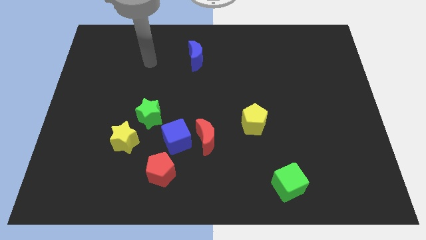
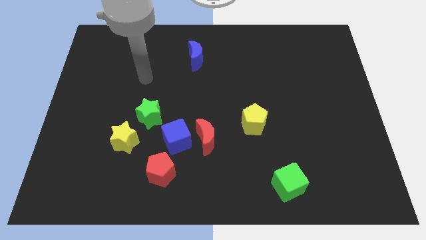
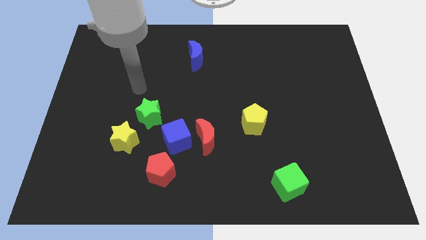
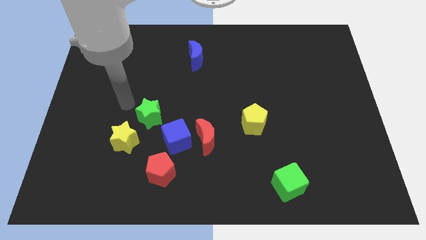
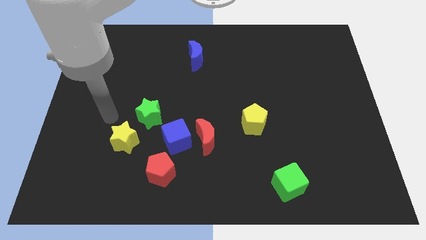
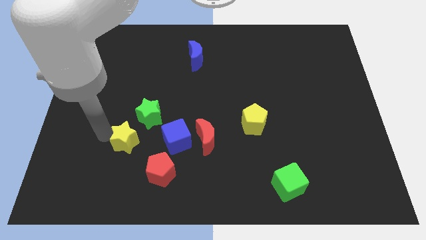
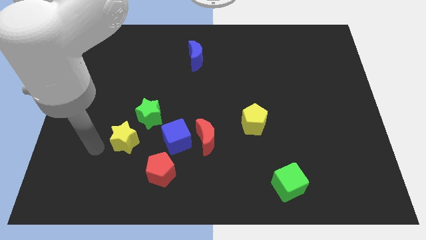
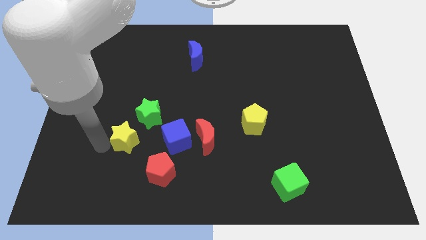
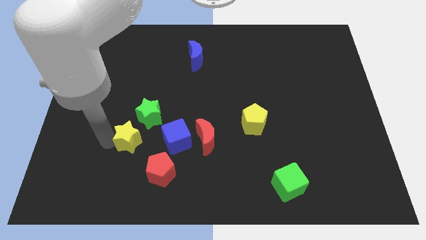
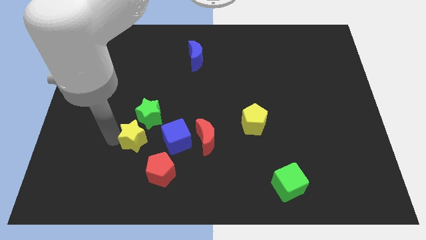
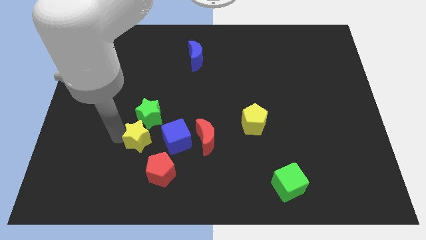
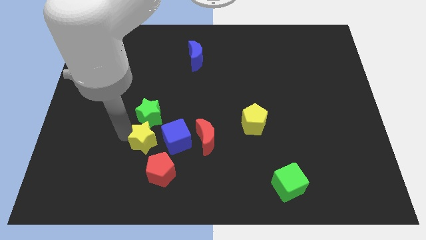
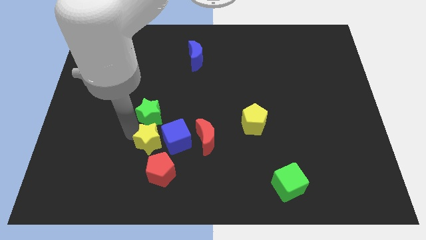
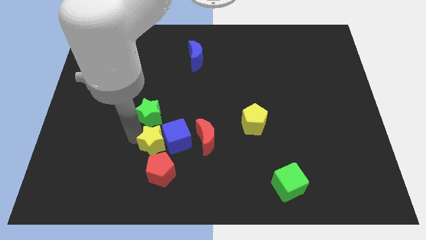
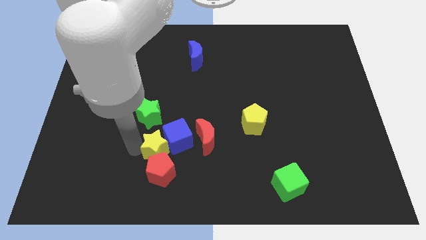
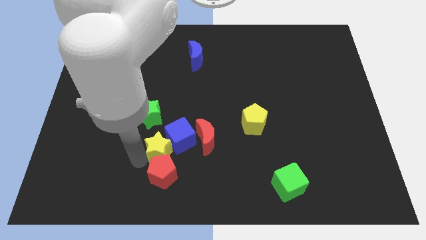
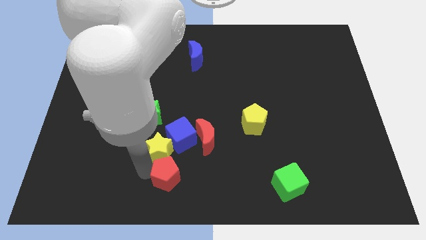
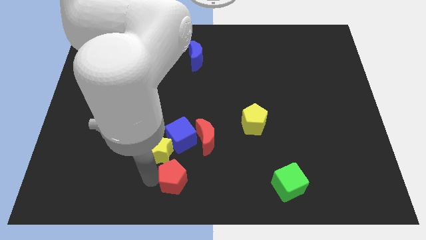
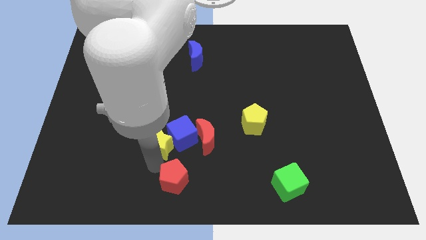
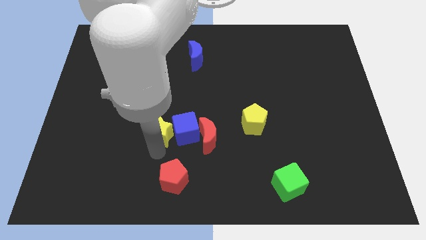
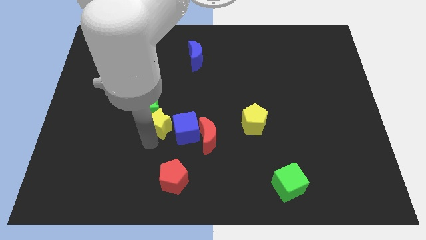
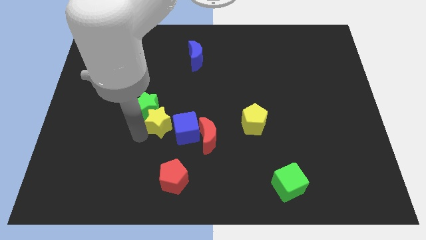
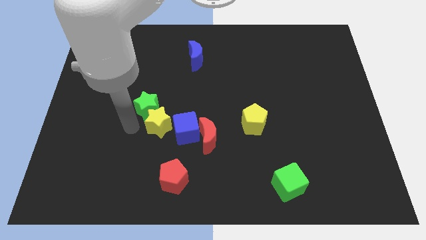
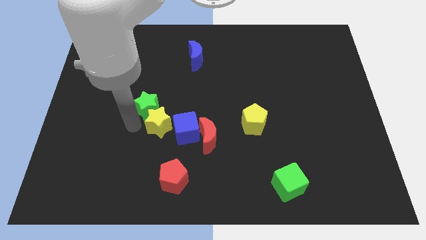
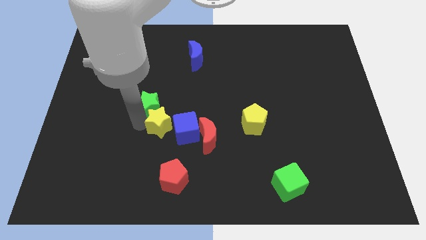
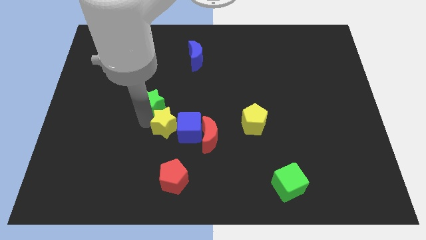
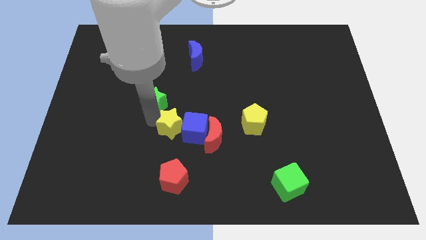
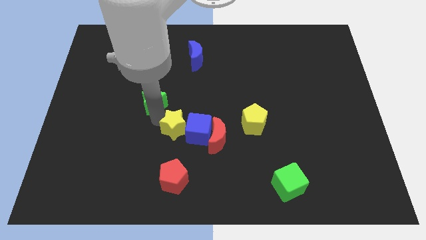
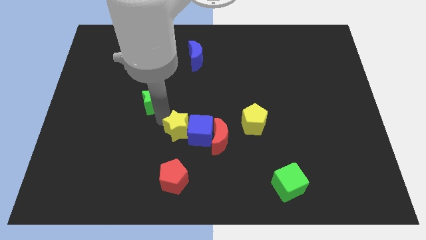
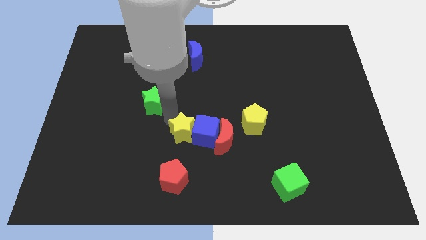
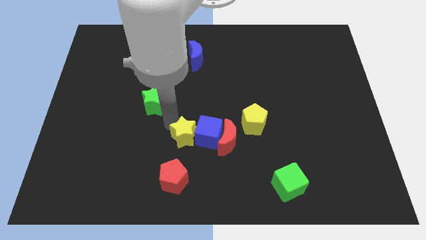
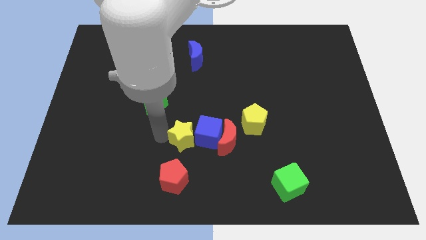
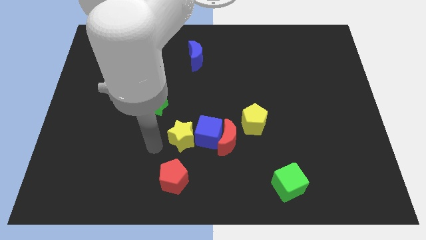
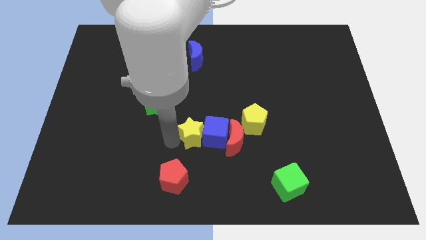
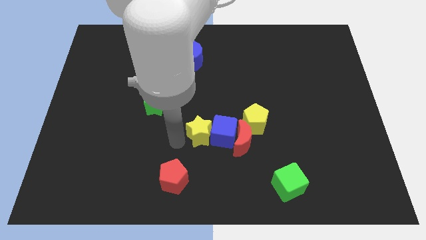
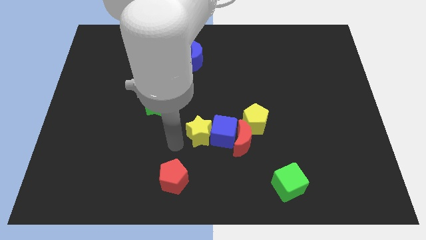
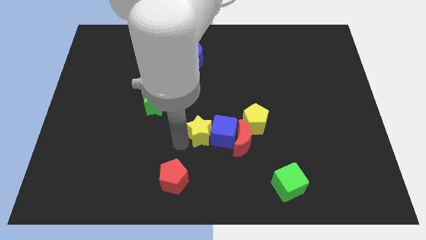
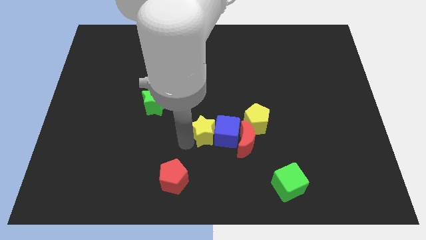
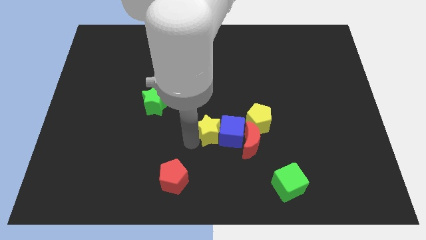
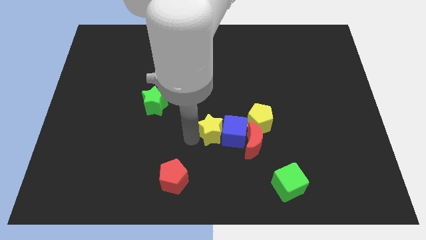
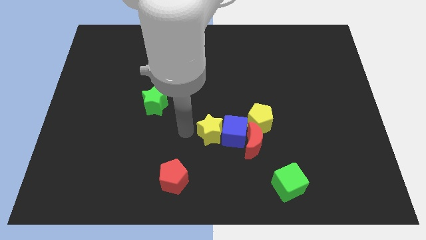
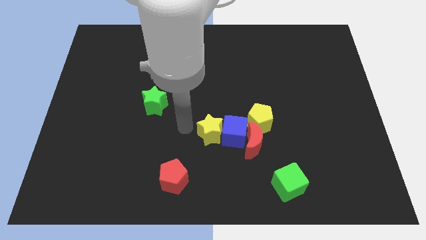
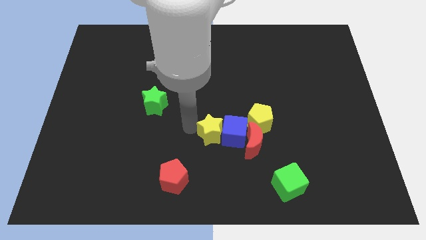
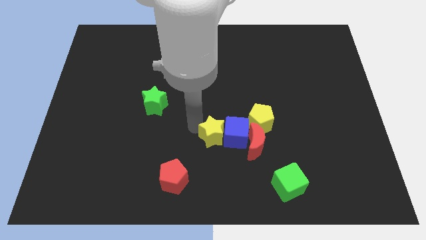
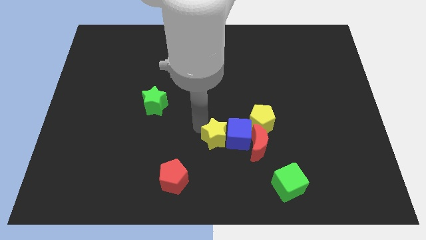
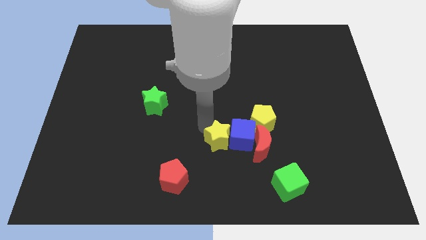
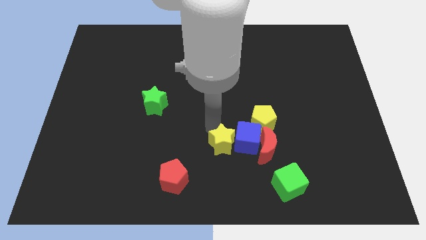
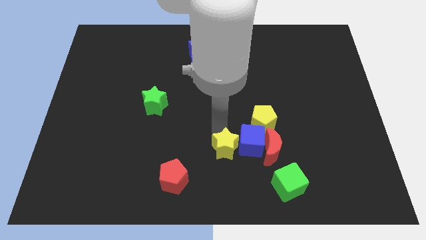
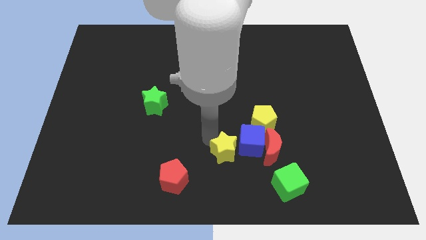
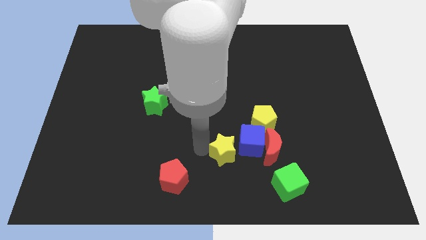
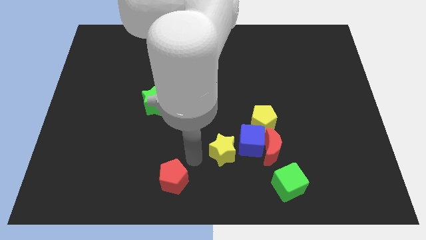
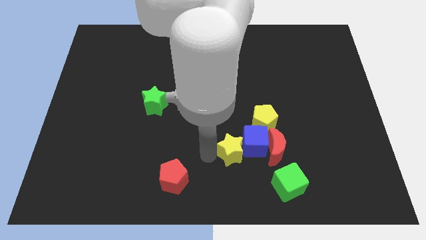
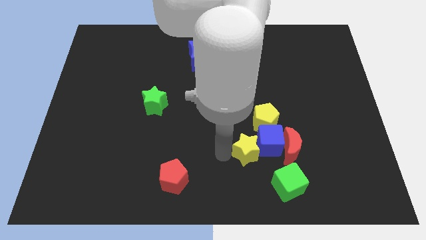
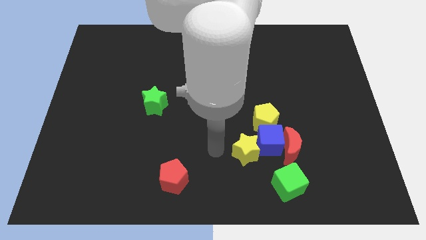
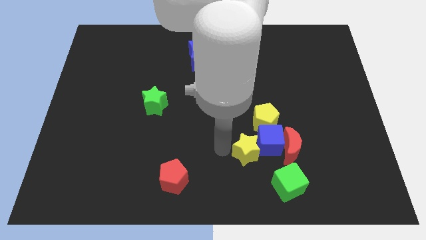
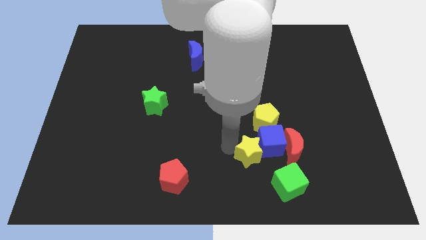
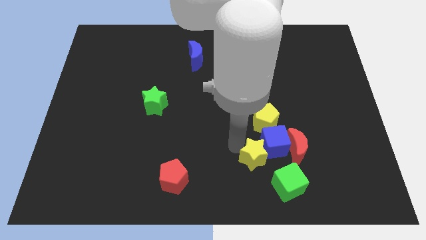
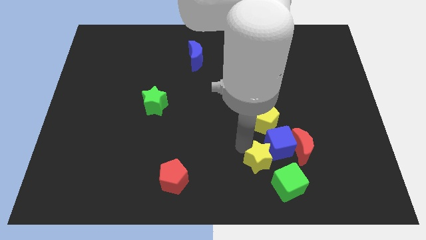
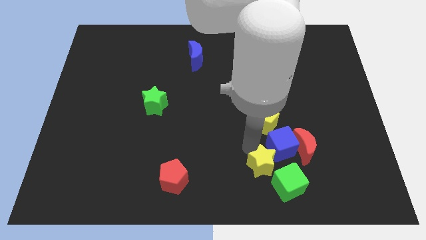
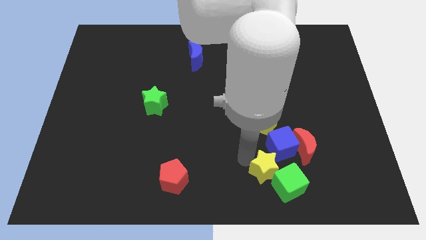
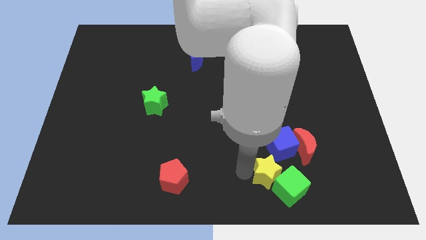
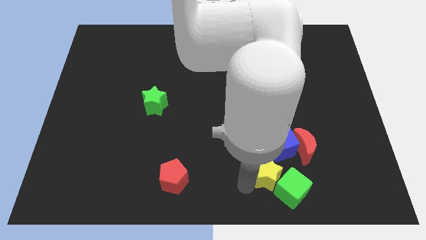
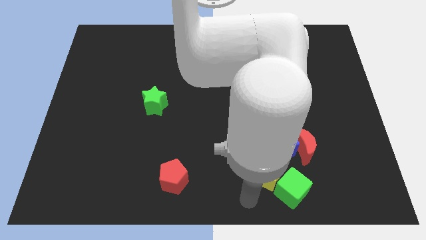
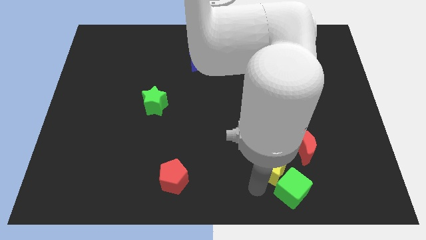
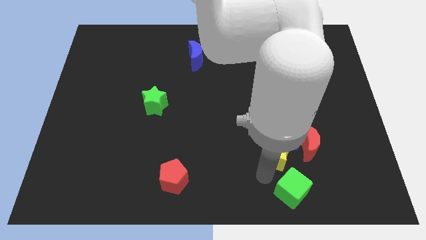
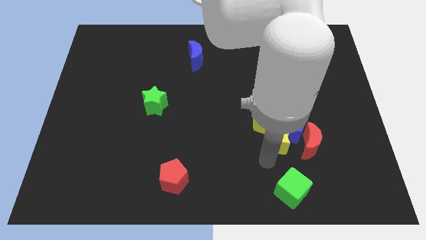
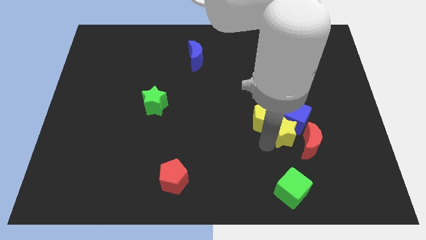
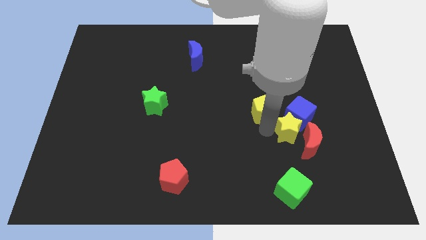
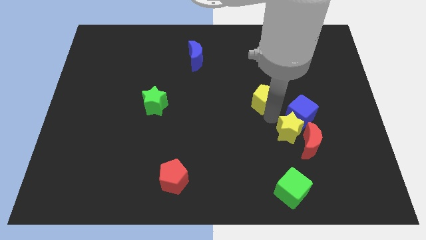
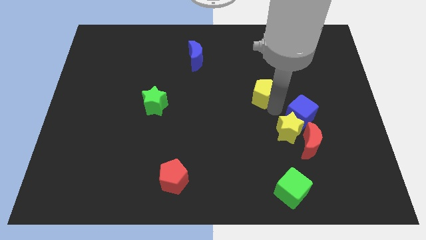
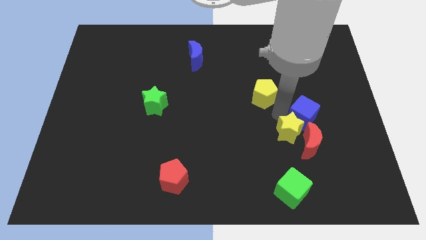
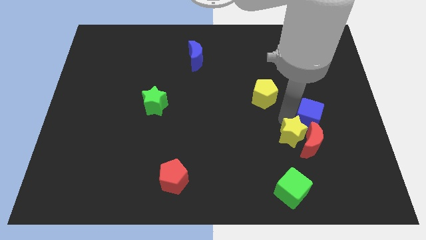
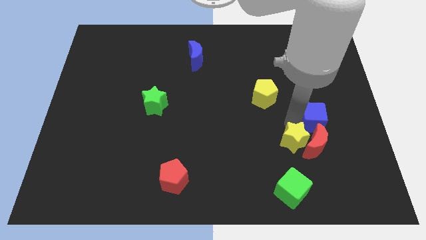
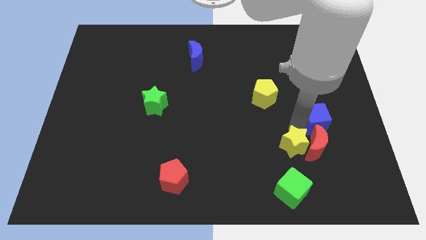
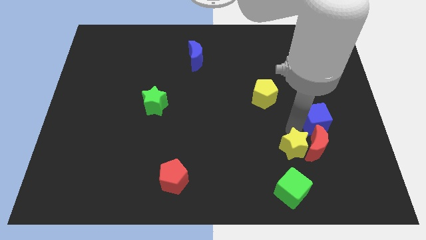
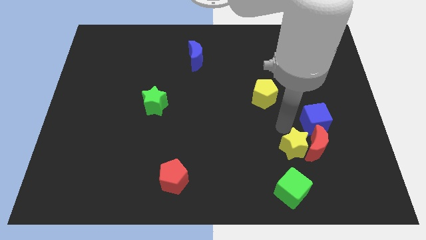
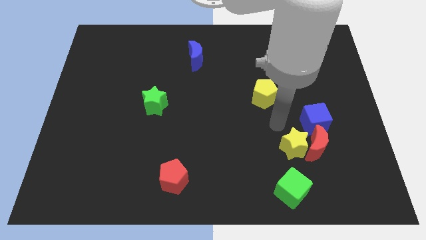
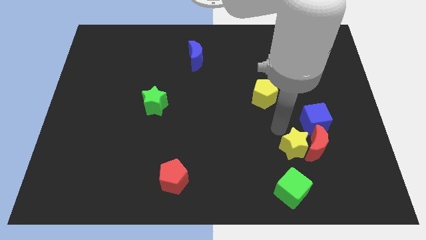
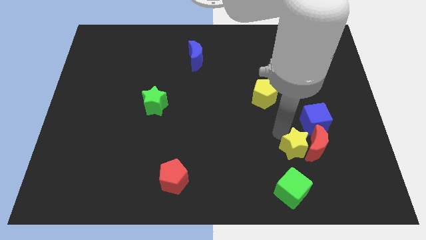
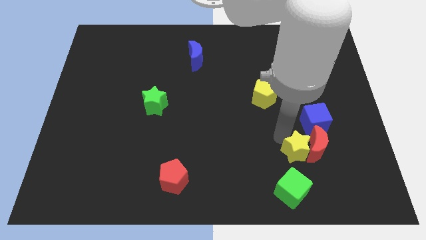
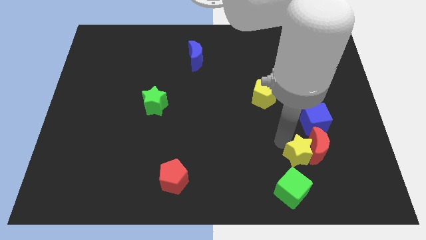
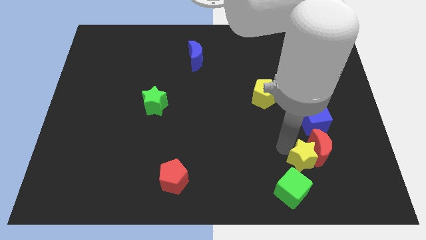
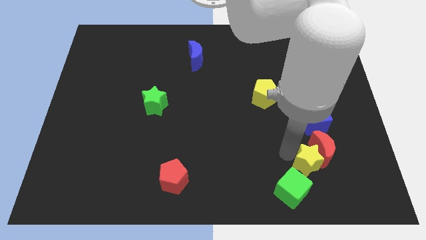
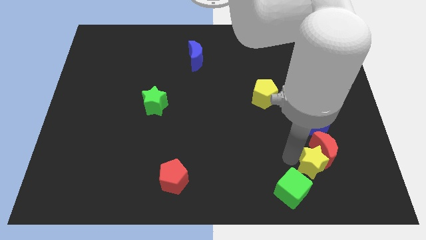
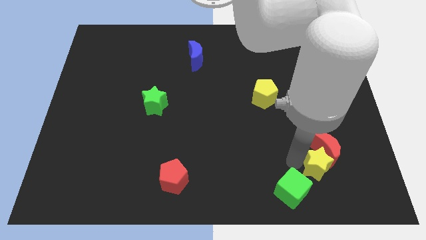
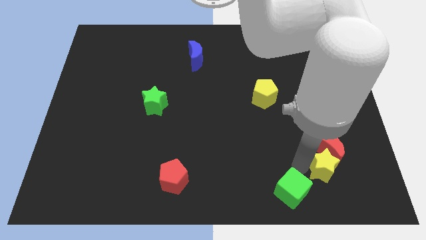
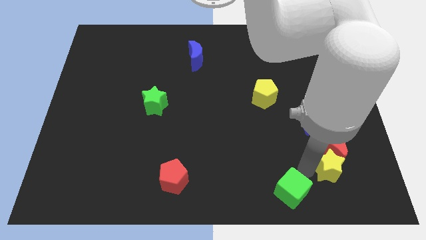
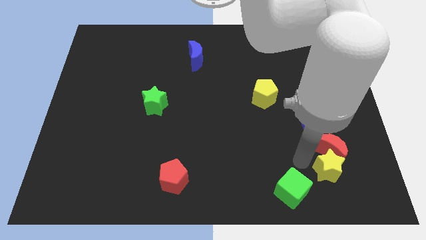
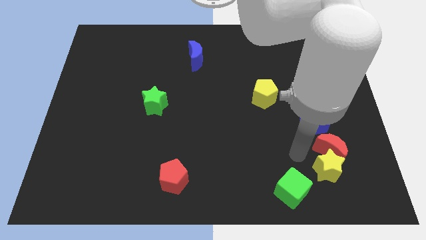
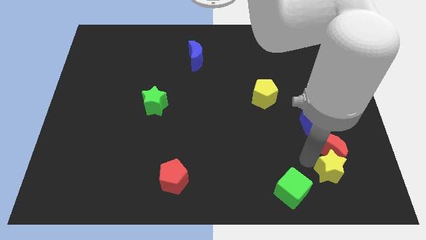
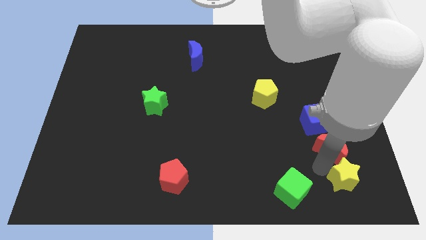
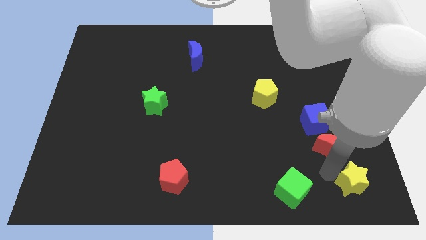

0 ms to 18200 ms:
slide the yellow star to the bottom right corner
